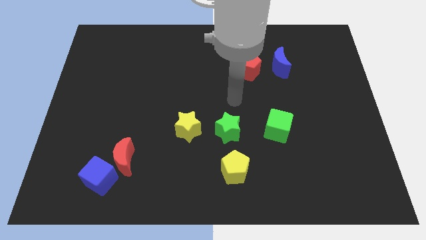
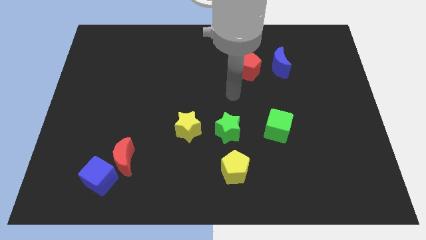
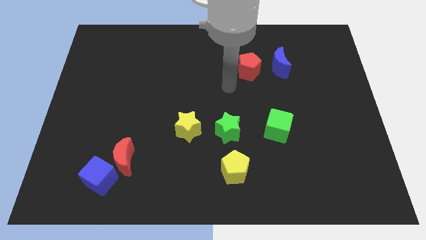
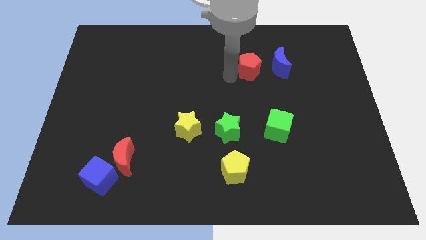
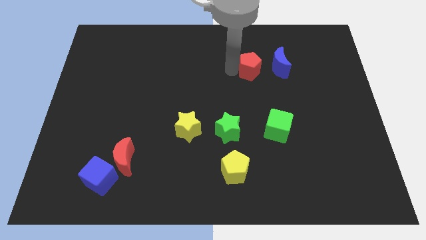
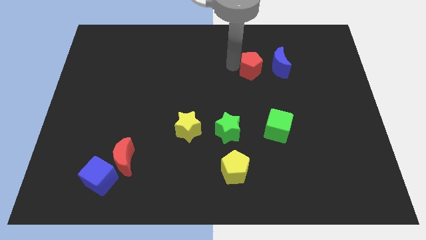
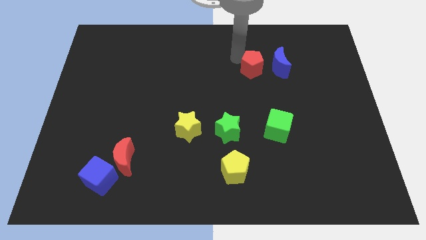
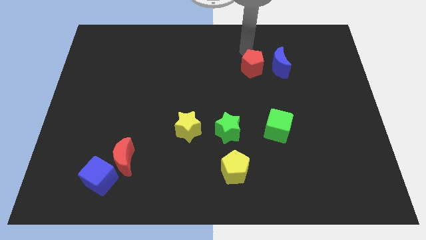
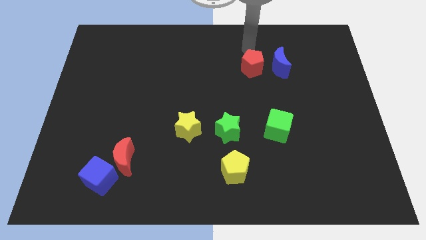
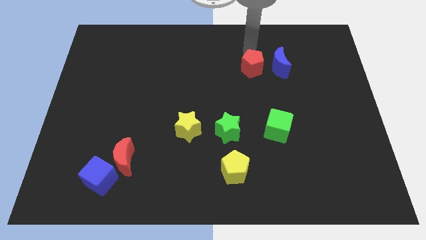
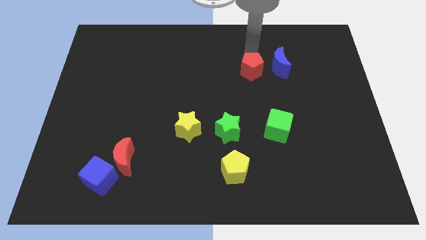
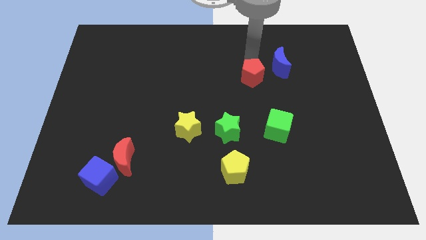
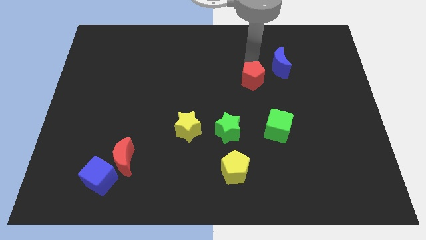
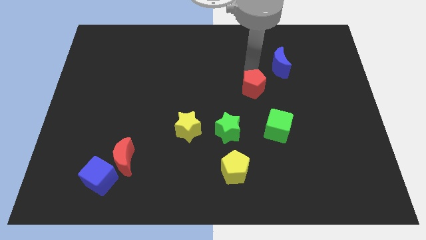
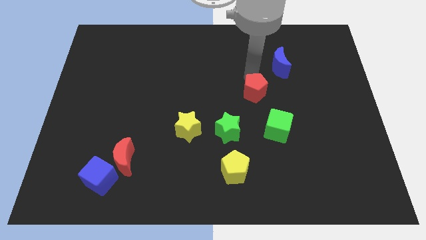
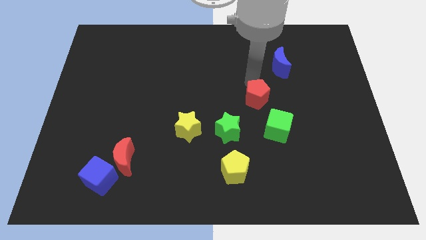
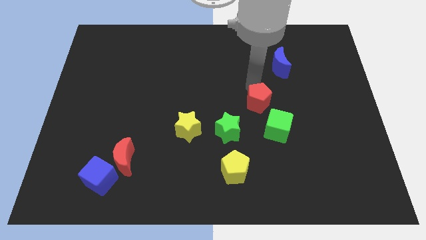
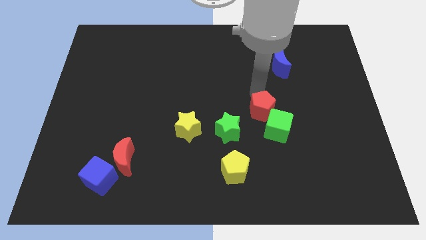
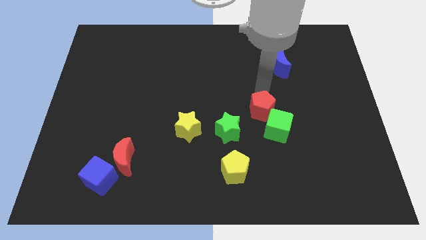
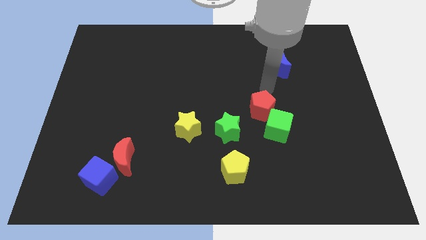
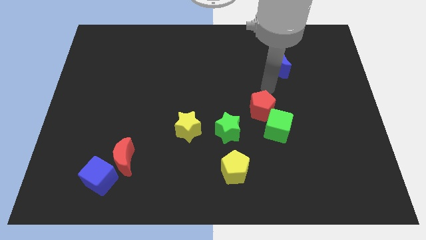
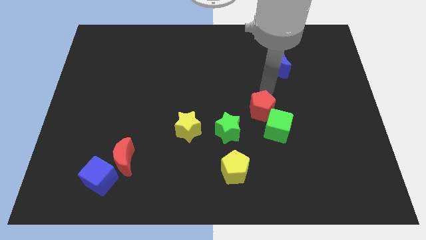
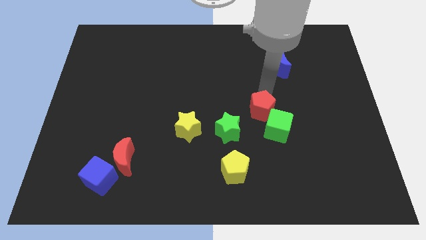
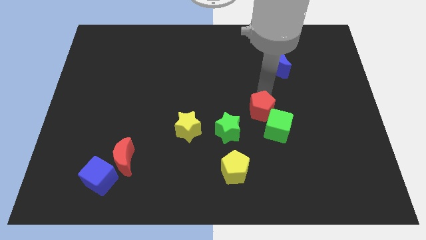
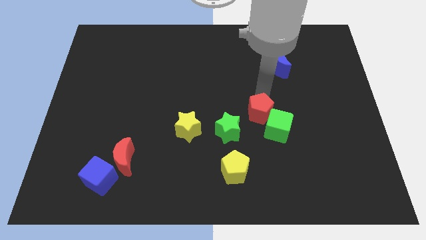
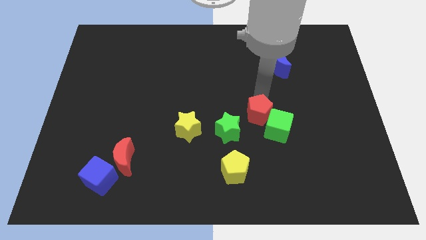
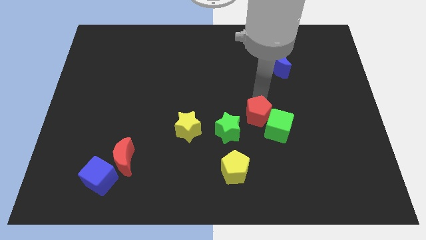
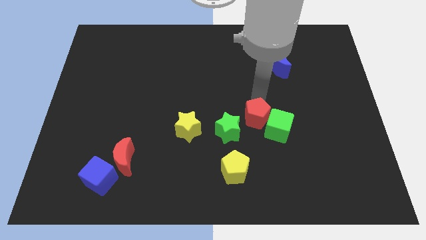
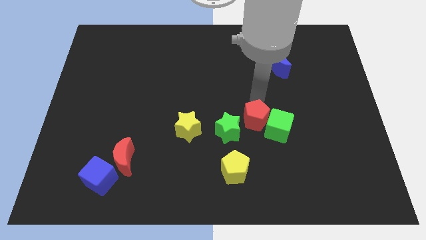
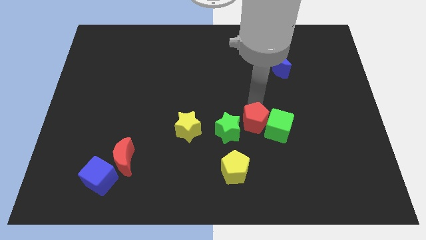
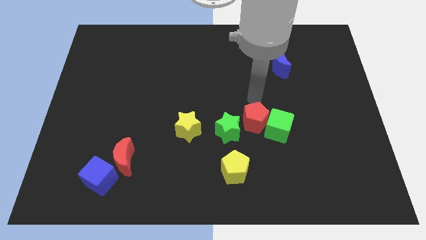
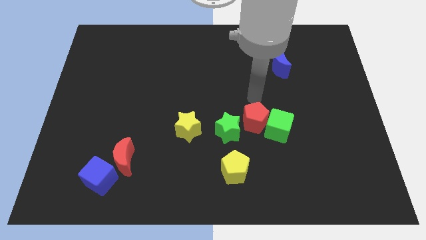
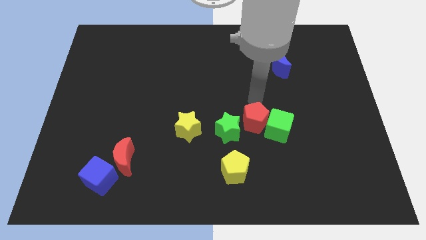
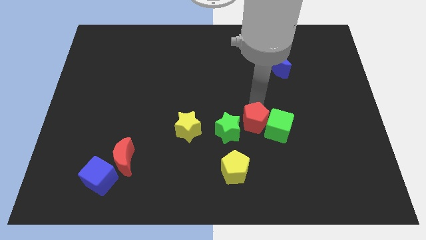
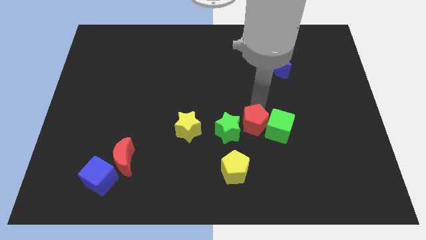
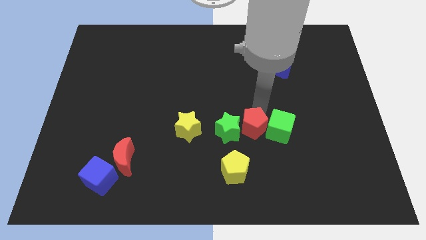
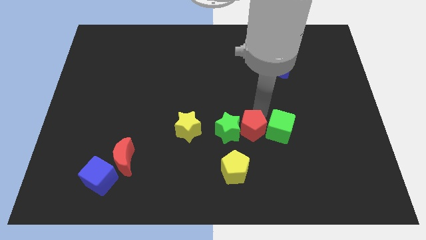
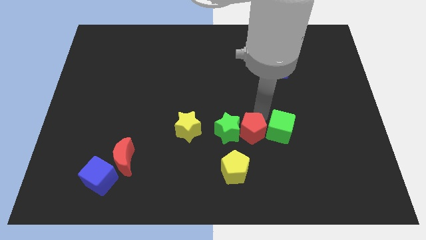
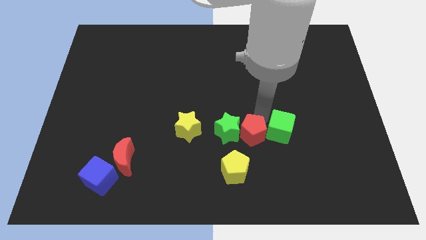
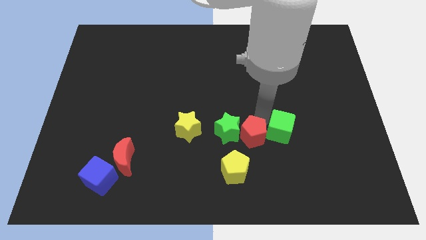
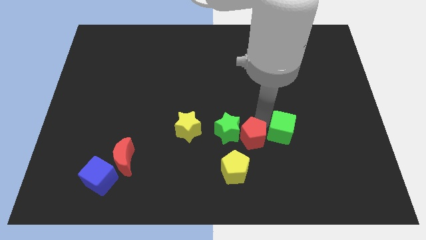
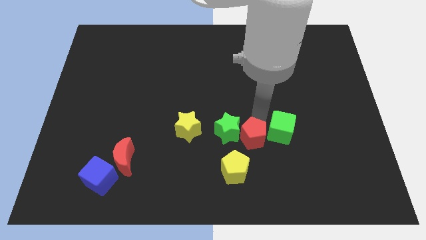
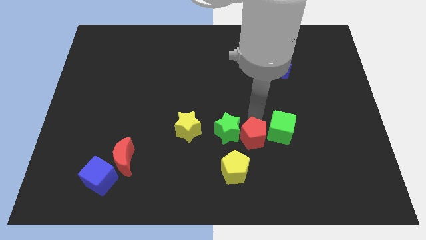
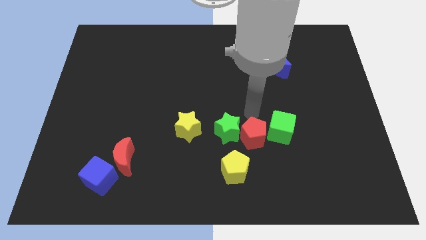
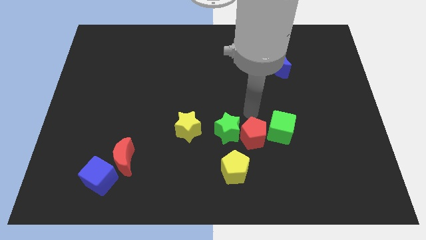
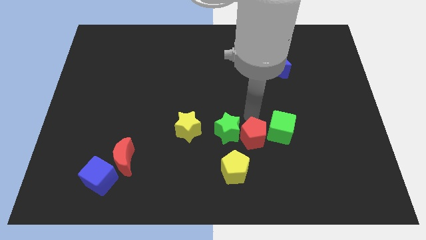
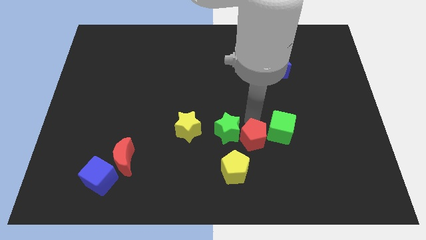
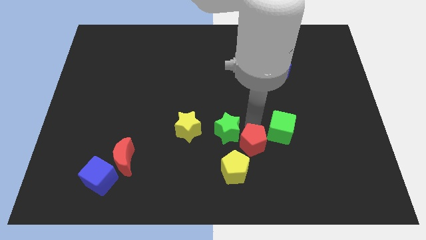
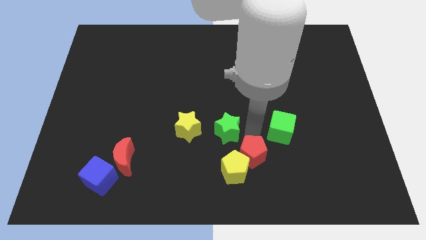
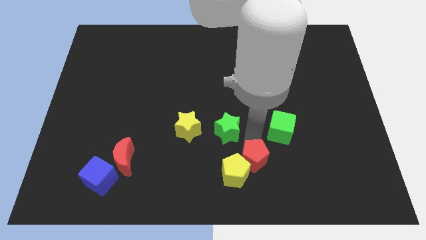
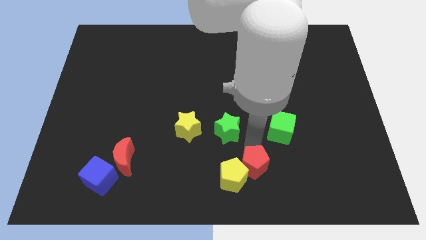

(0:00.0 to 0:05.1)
push the red pentagon to the bottom side

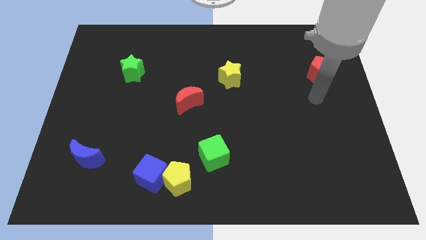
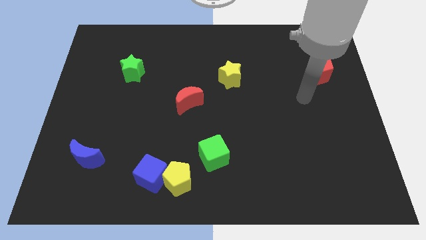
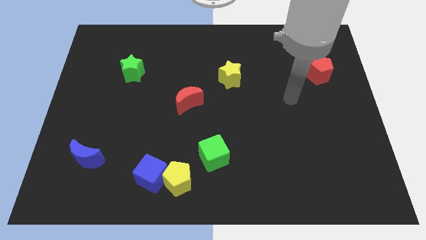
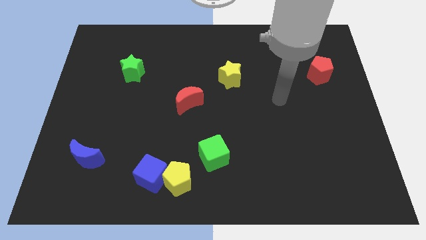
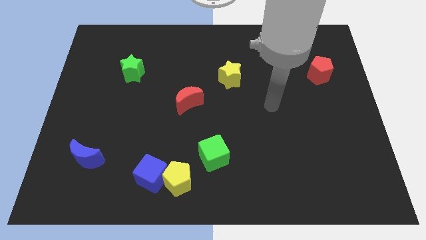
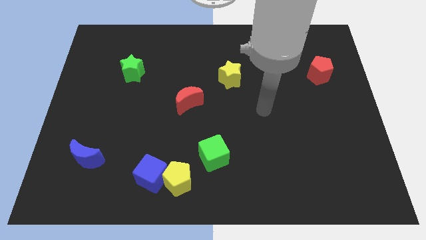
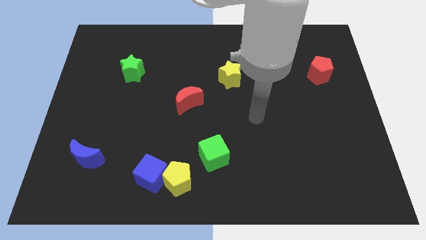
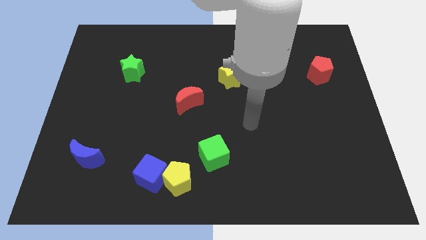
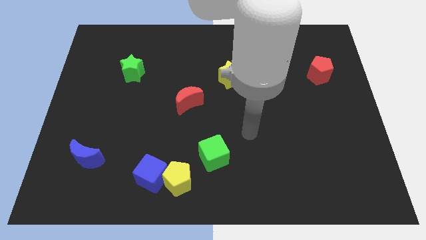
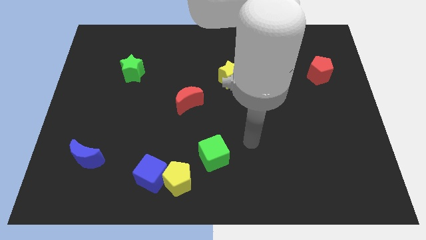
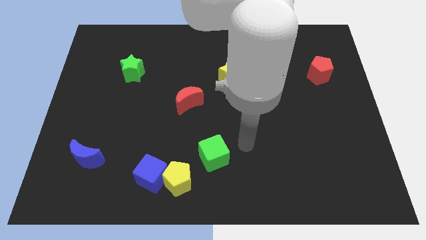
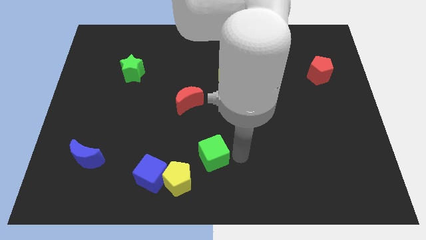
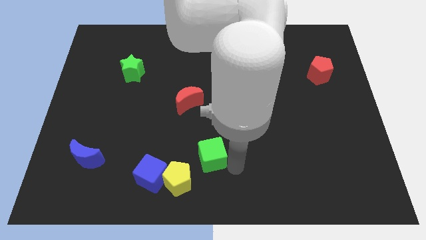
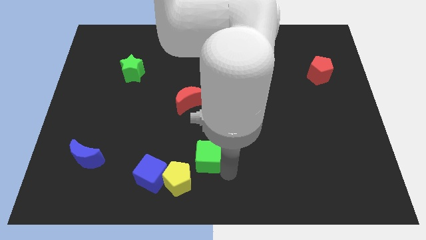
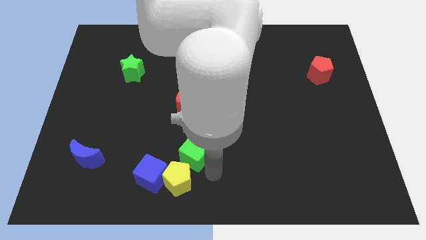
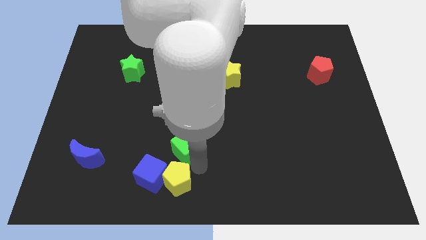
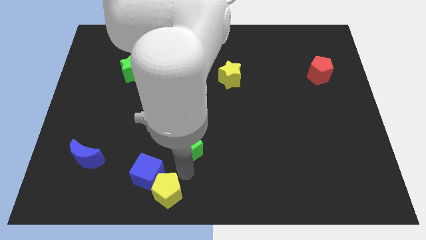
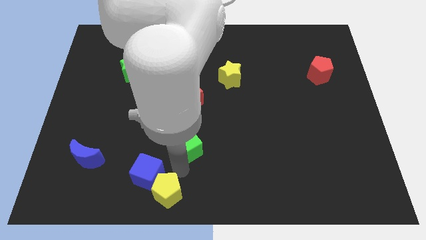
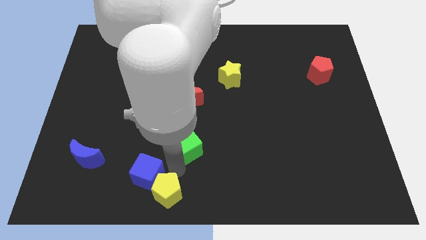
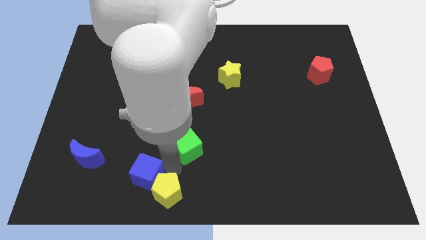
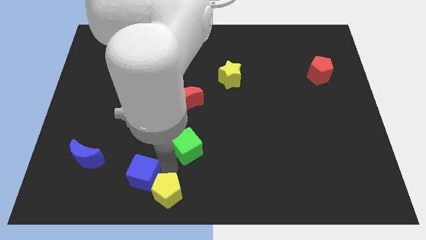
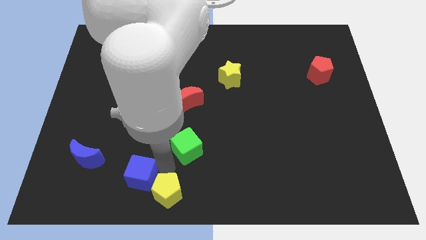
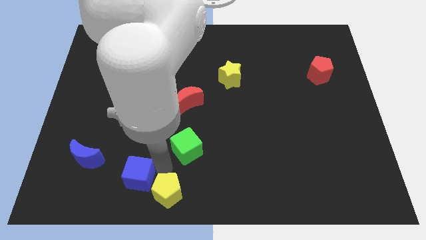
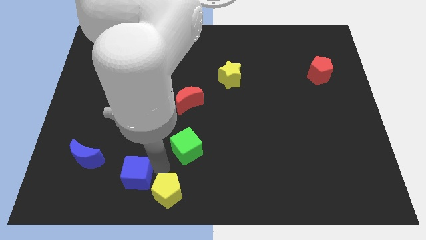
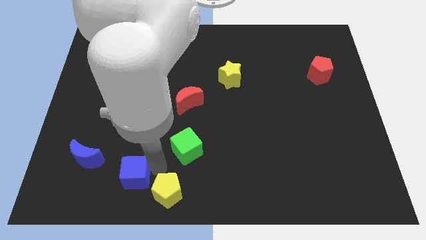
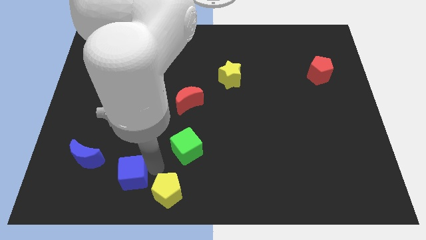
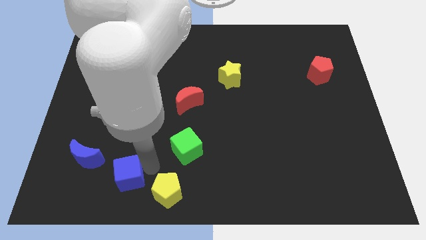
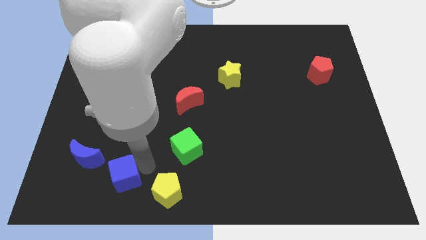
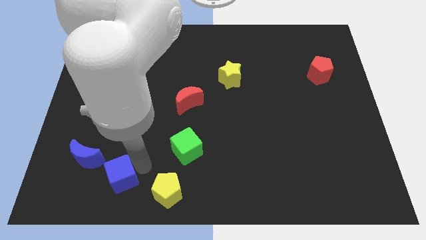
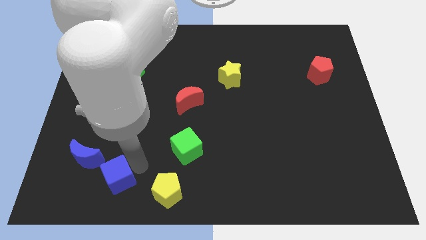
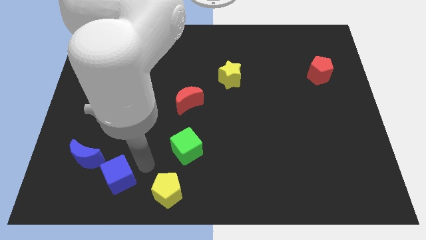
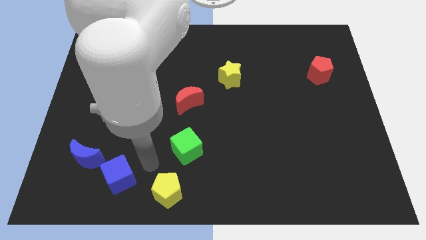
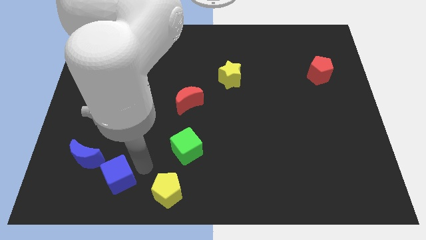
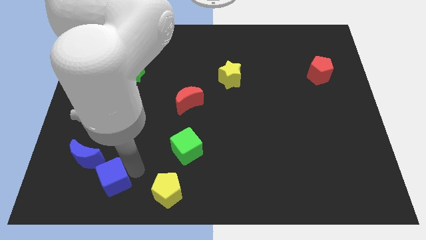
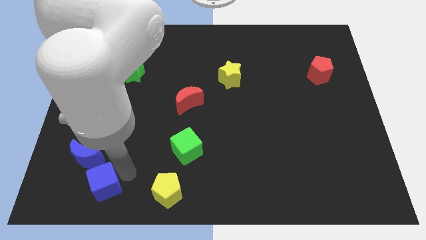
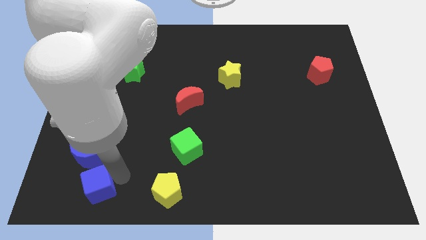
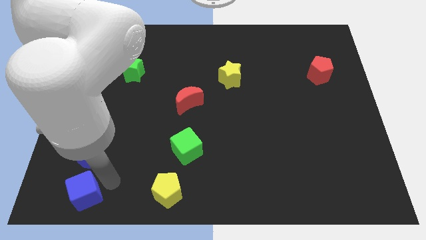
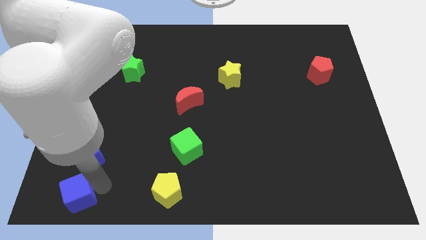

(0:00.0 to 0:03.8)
slide the blue cube to the bottom left of the board
